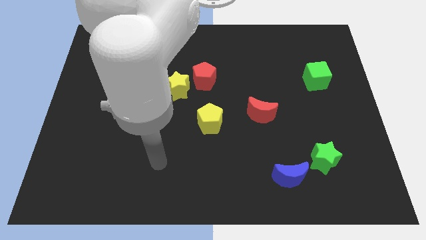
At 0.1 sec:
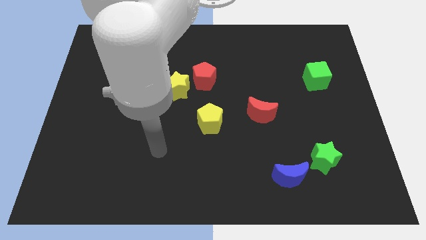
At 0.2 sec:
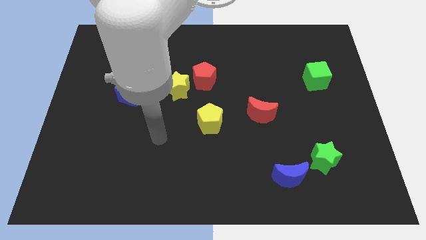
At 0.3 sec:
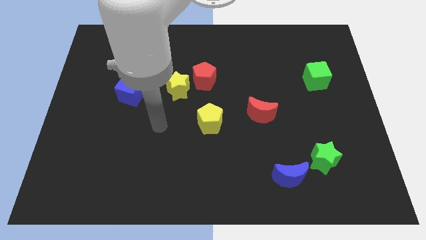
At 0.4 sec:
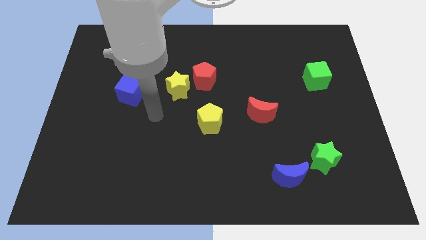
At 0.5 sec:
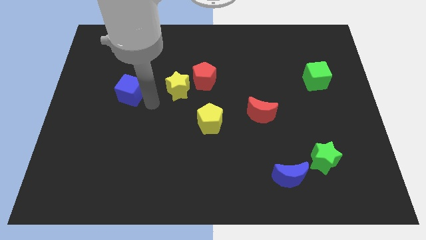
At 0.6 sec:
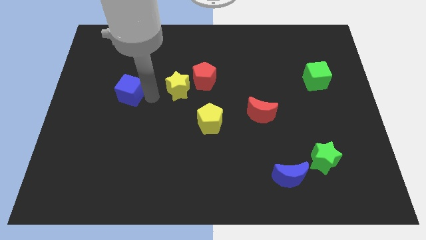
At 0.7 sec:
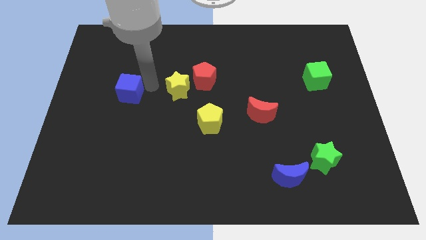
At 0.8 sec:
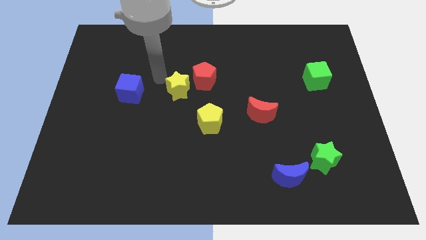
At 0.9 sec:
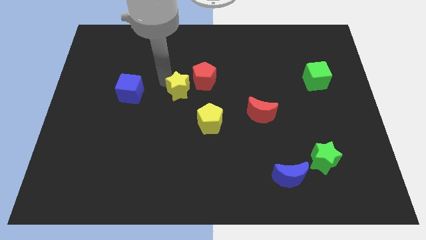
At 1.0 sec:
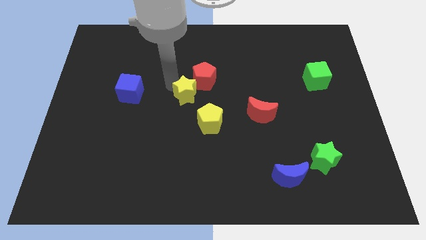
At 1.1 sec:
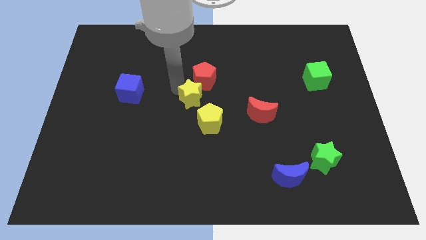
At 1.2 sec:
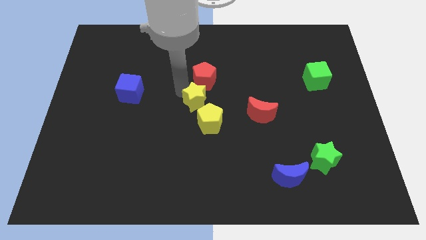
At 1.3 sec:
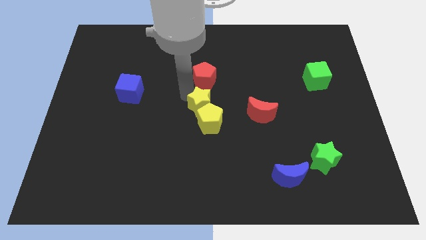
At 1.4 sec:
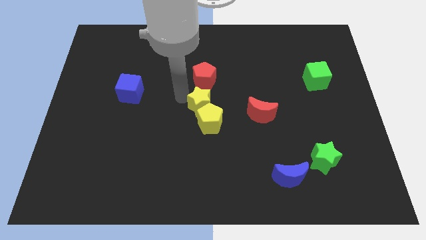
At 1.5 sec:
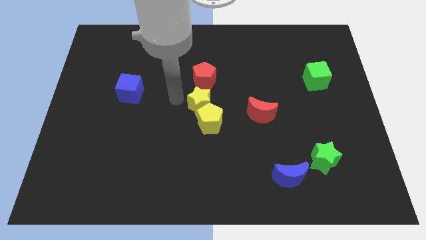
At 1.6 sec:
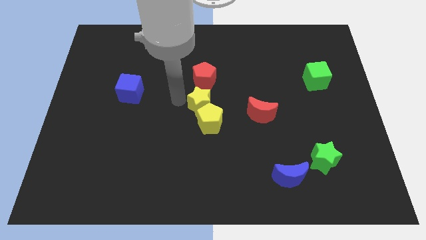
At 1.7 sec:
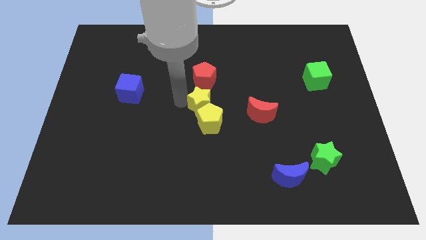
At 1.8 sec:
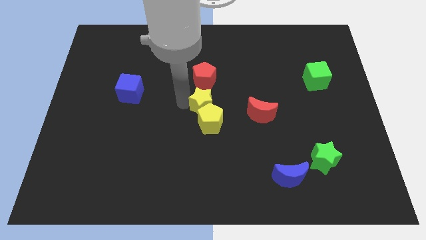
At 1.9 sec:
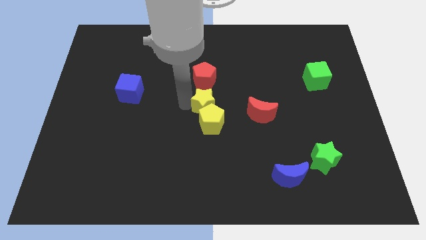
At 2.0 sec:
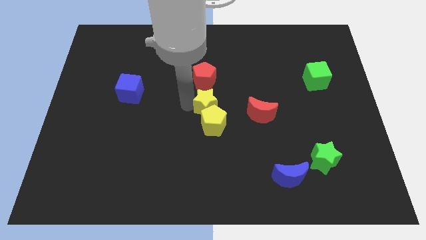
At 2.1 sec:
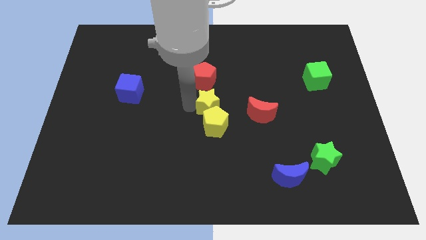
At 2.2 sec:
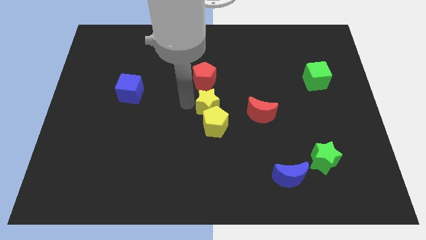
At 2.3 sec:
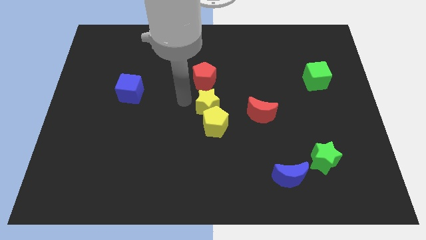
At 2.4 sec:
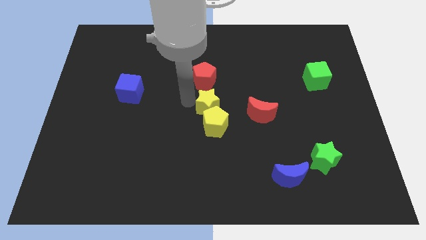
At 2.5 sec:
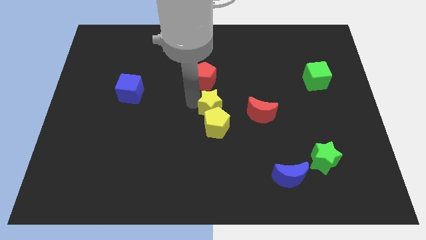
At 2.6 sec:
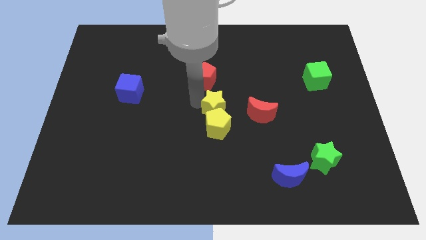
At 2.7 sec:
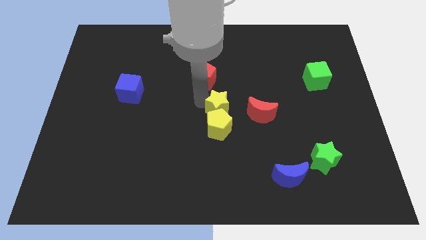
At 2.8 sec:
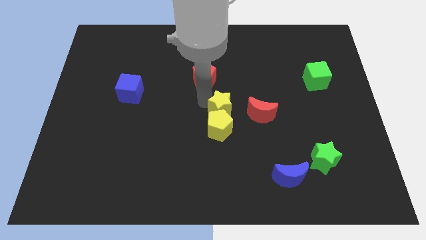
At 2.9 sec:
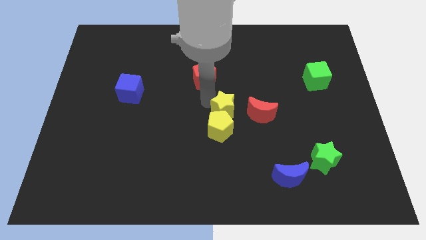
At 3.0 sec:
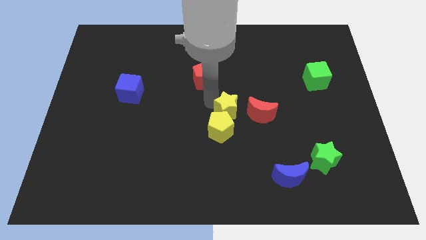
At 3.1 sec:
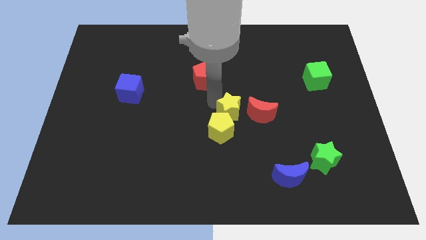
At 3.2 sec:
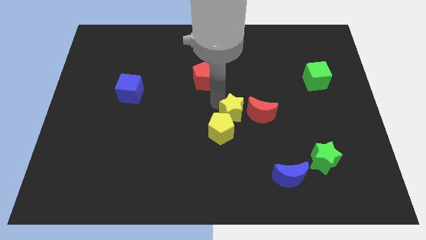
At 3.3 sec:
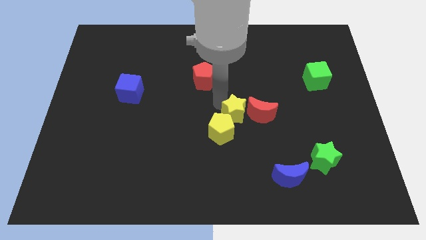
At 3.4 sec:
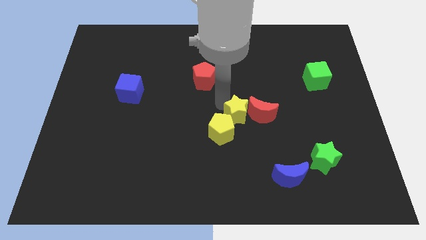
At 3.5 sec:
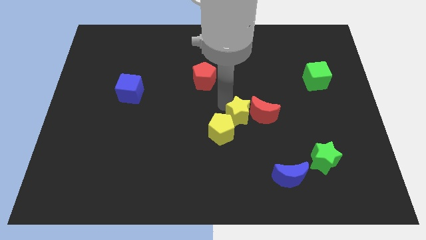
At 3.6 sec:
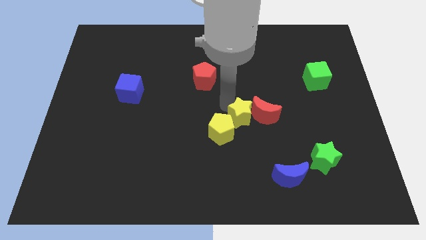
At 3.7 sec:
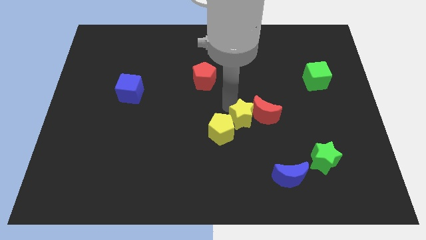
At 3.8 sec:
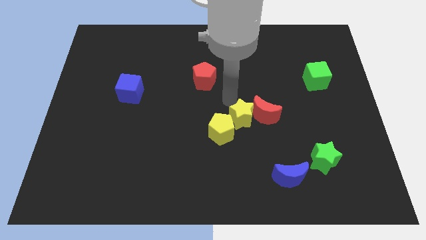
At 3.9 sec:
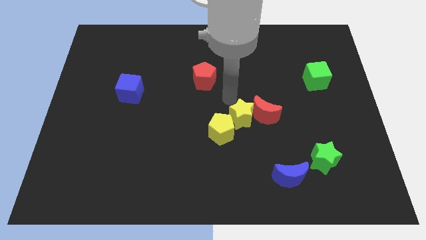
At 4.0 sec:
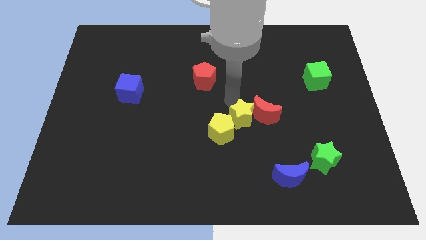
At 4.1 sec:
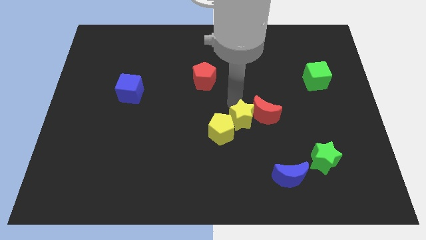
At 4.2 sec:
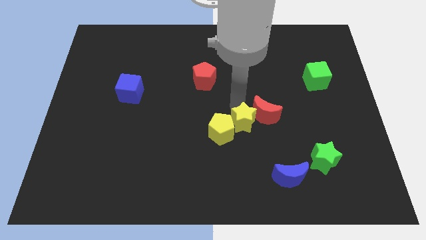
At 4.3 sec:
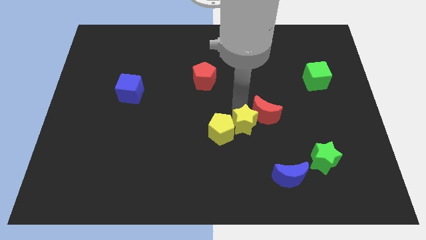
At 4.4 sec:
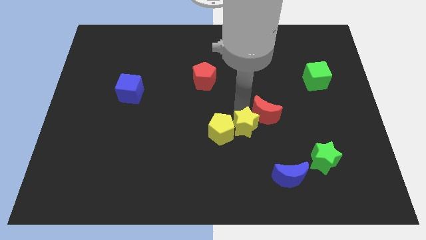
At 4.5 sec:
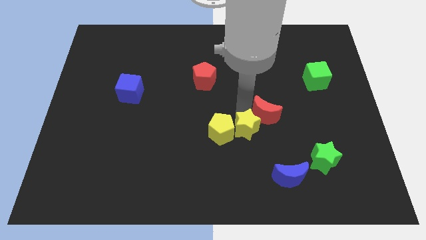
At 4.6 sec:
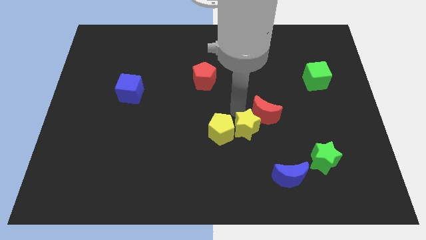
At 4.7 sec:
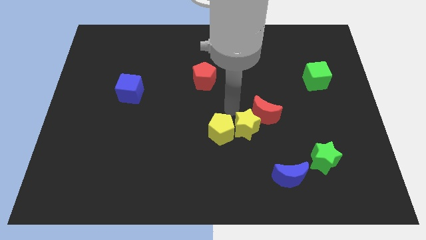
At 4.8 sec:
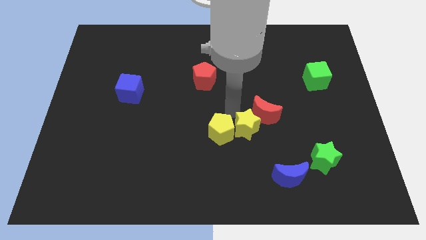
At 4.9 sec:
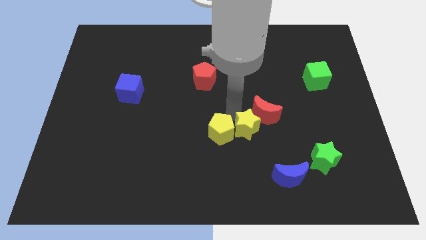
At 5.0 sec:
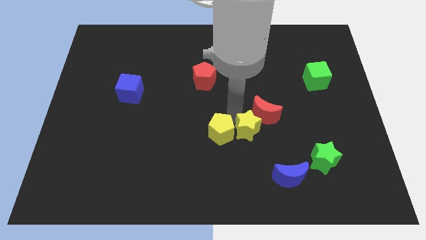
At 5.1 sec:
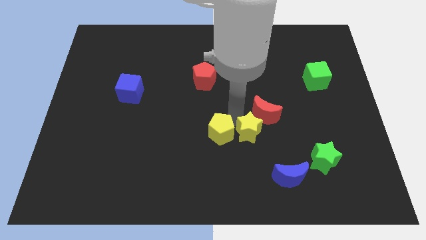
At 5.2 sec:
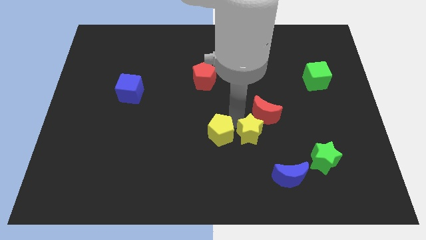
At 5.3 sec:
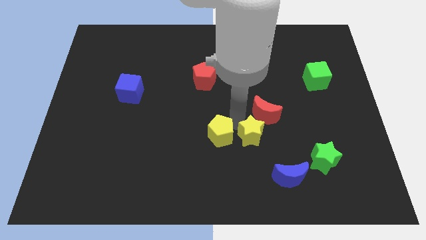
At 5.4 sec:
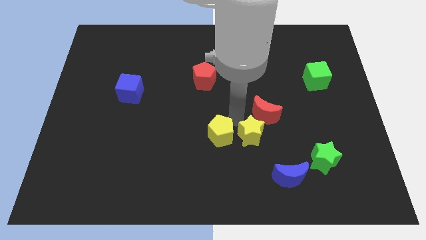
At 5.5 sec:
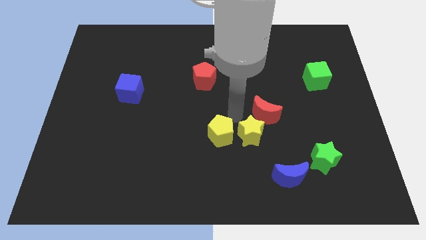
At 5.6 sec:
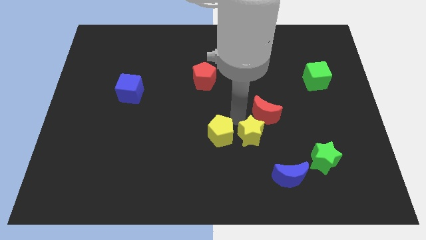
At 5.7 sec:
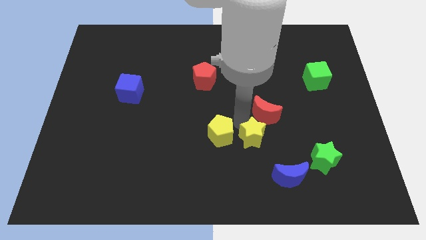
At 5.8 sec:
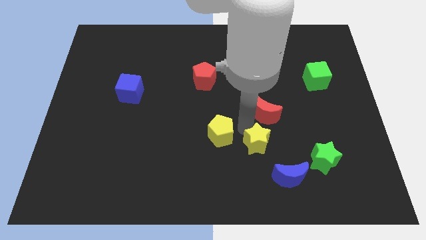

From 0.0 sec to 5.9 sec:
slide the yellow star left of the green star

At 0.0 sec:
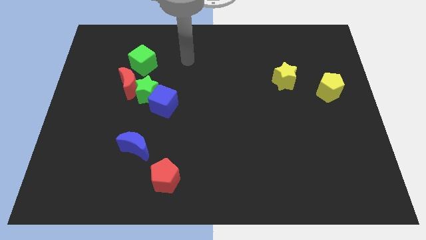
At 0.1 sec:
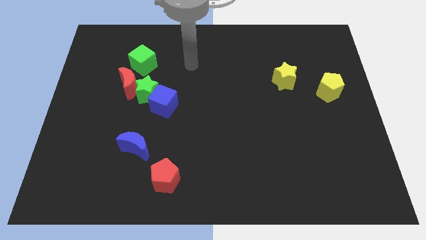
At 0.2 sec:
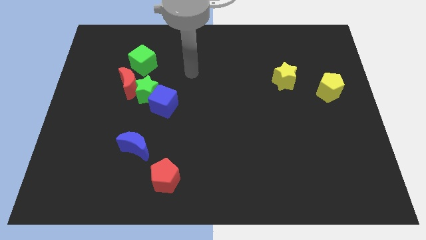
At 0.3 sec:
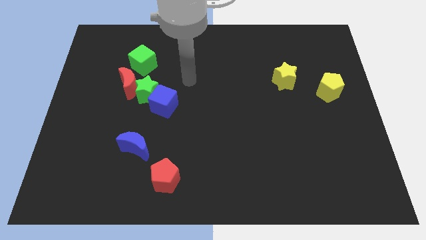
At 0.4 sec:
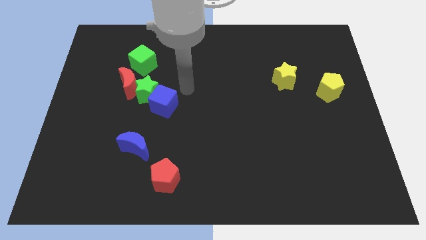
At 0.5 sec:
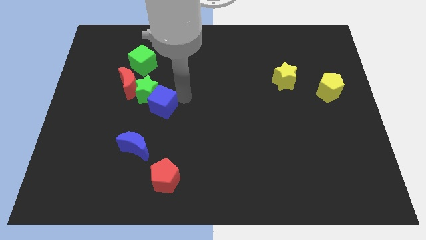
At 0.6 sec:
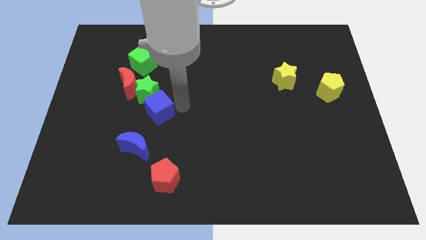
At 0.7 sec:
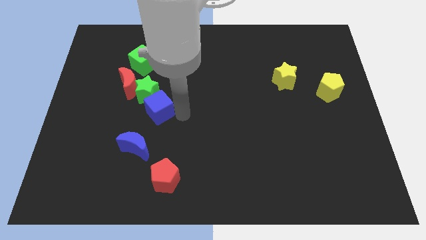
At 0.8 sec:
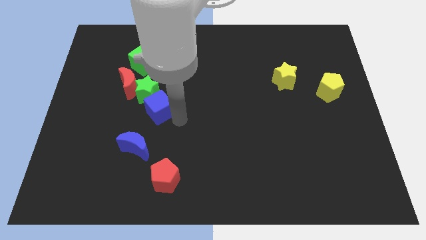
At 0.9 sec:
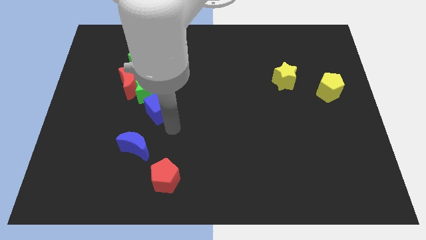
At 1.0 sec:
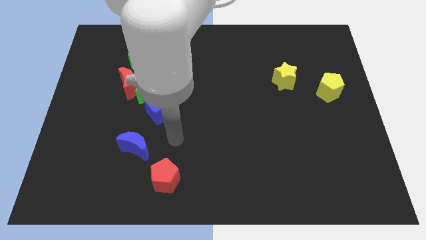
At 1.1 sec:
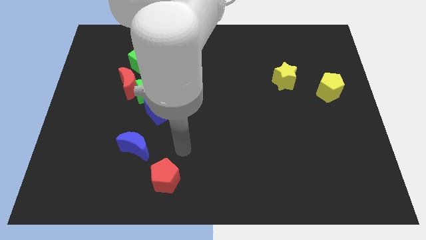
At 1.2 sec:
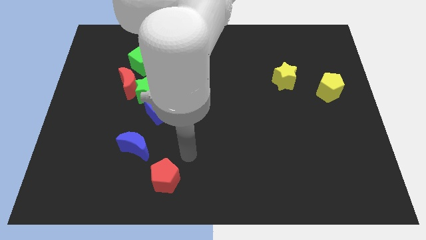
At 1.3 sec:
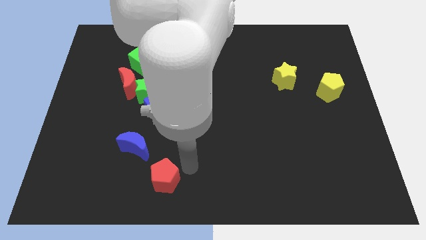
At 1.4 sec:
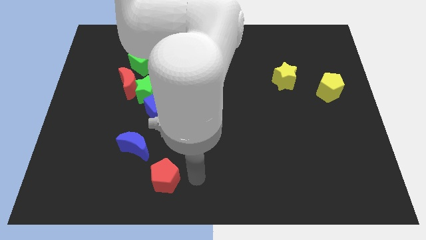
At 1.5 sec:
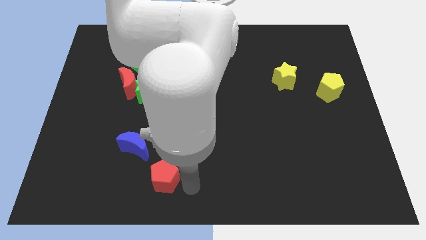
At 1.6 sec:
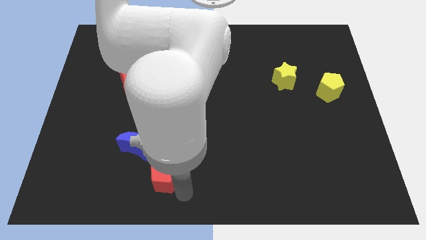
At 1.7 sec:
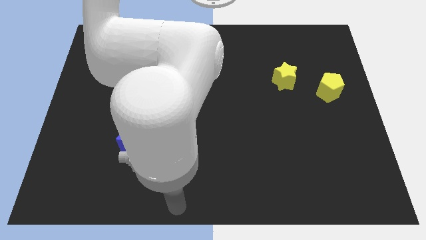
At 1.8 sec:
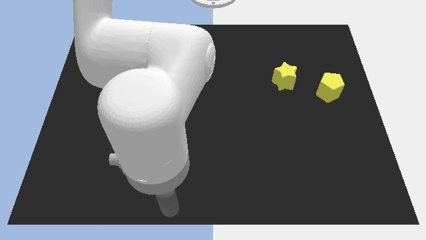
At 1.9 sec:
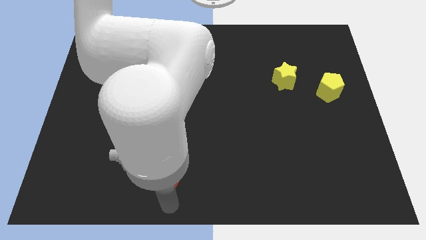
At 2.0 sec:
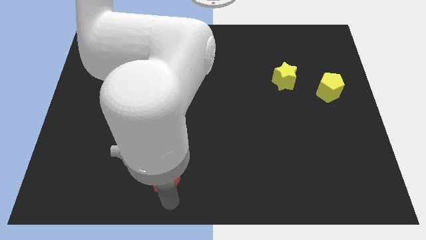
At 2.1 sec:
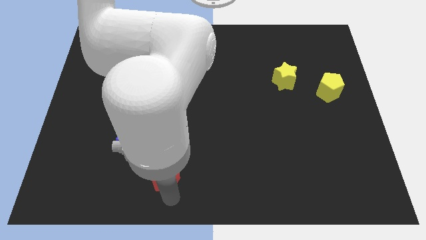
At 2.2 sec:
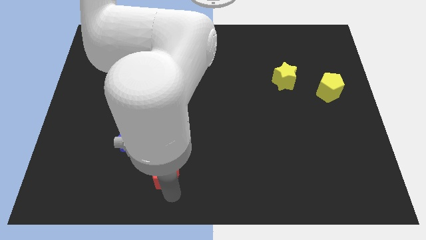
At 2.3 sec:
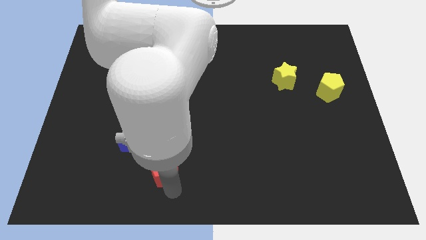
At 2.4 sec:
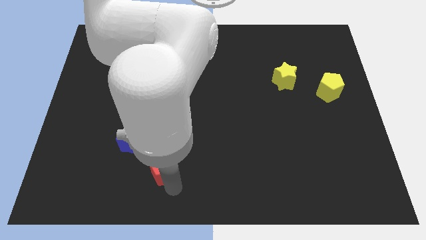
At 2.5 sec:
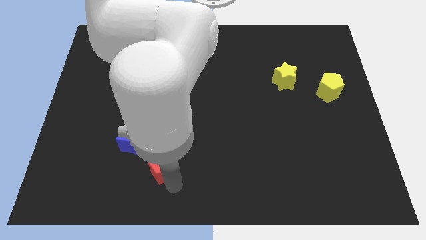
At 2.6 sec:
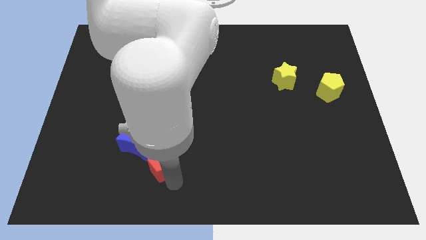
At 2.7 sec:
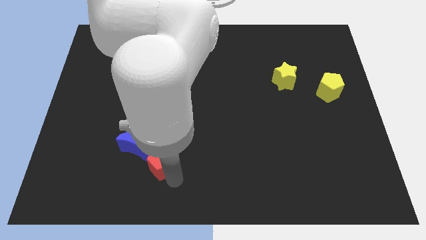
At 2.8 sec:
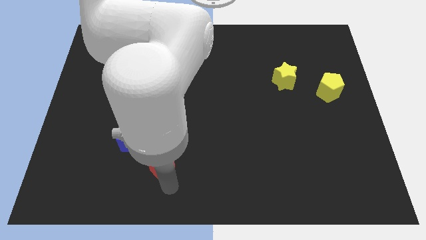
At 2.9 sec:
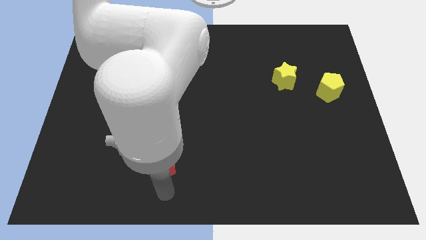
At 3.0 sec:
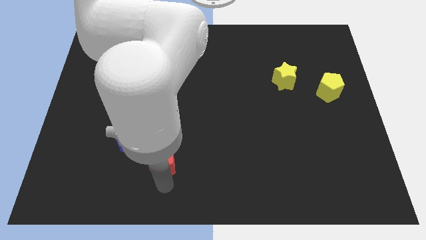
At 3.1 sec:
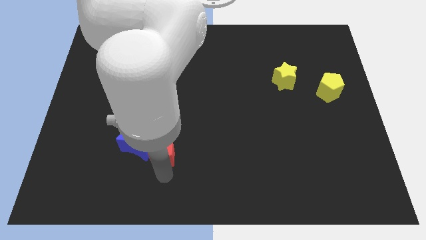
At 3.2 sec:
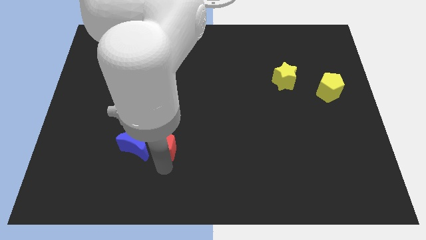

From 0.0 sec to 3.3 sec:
move the red pentagon to the top right of the blue moon
